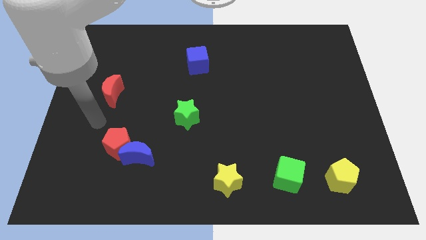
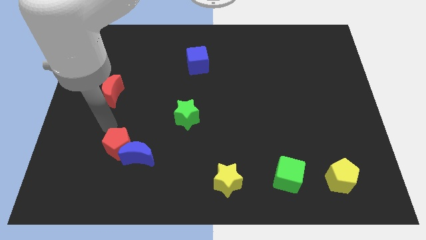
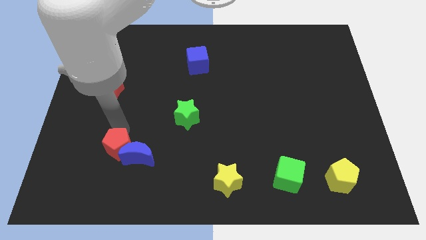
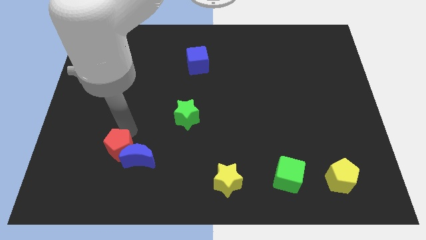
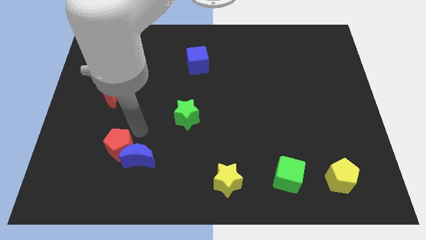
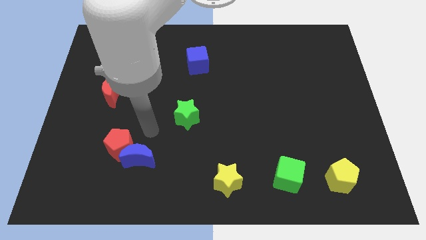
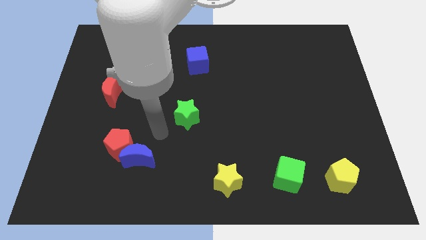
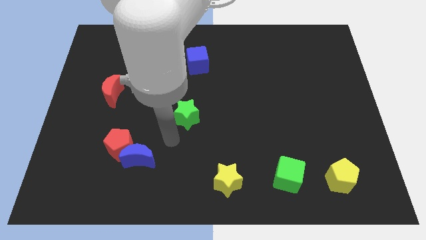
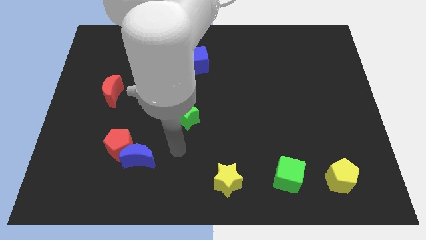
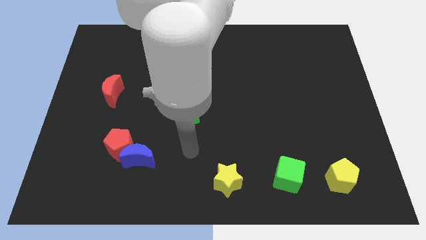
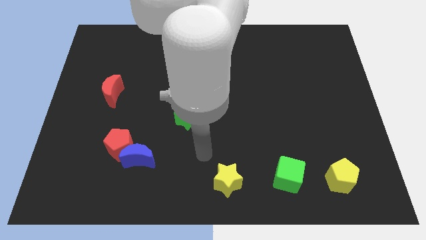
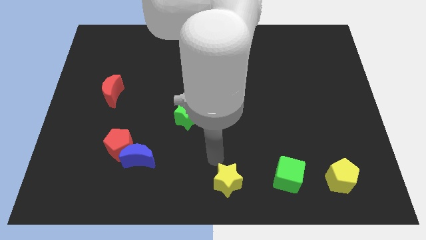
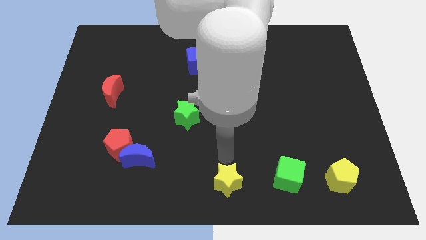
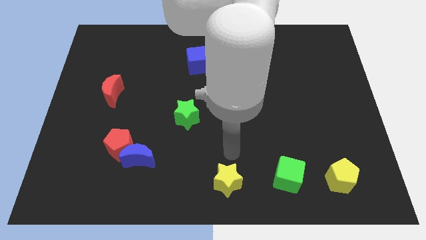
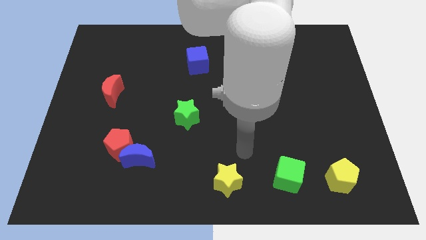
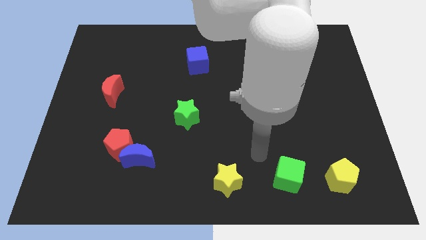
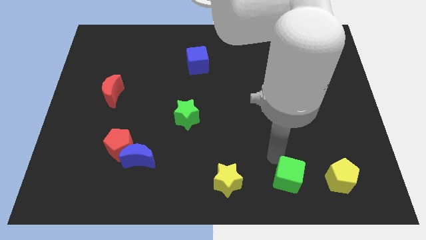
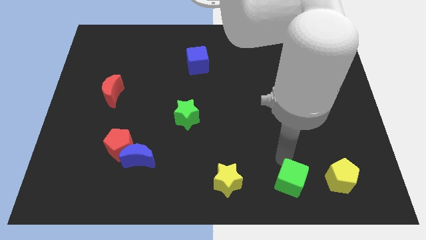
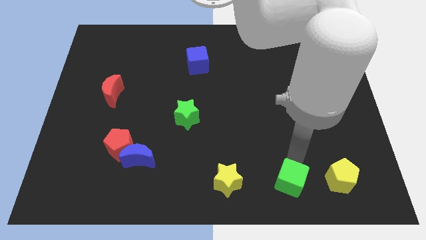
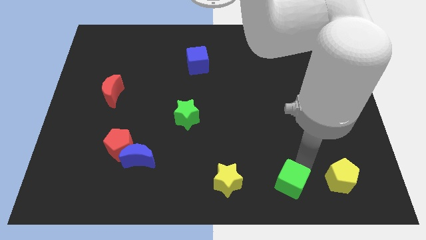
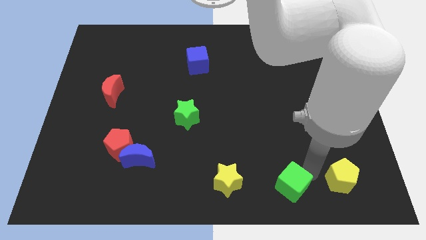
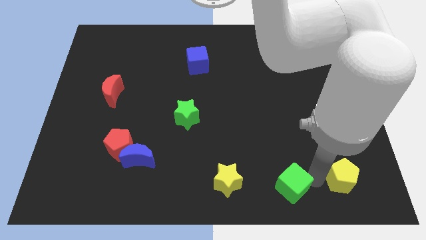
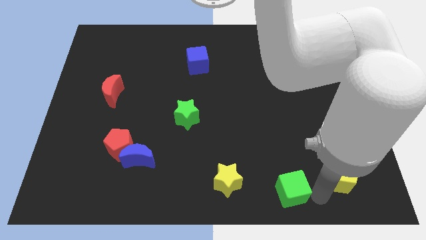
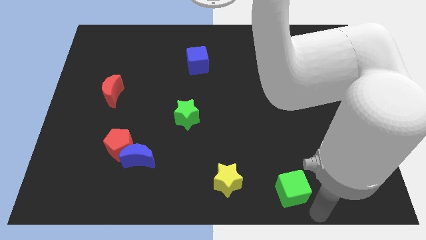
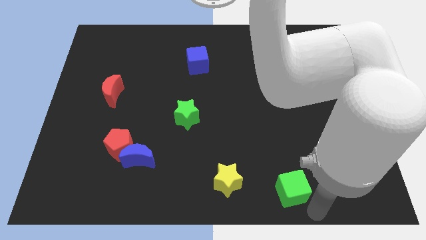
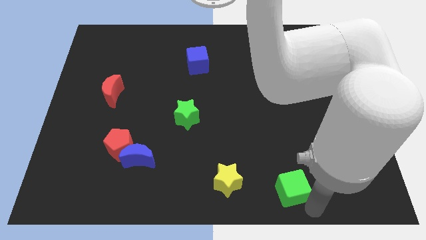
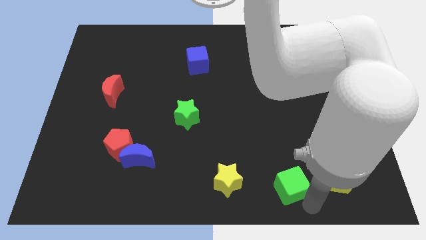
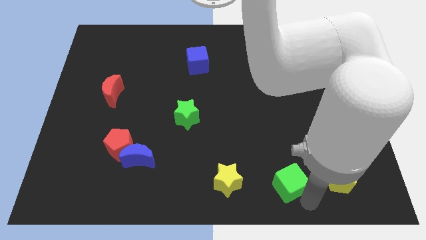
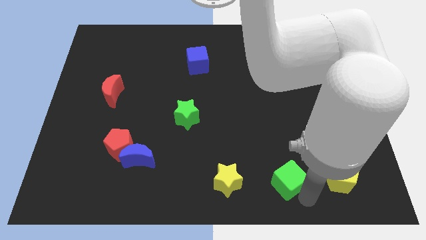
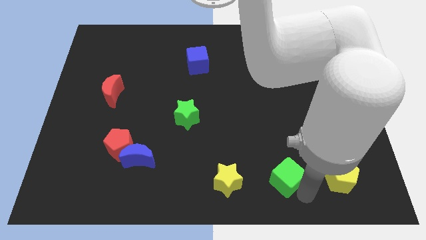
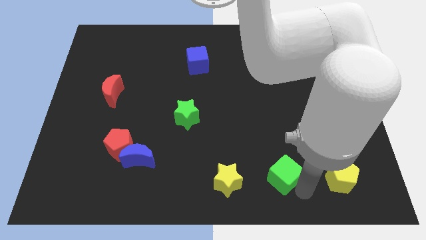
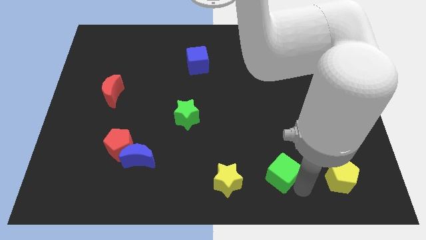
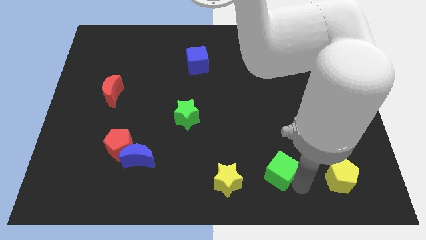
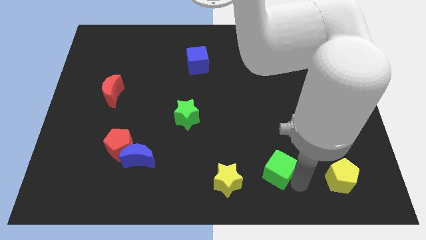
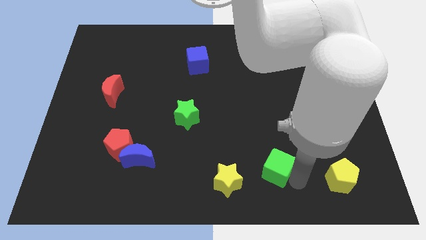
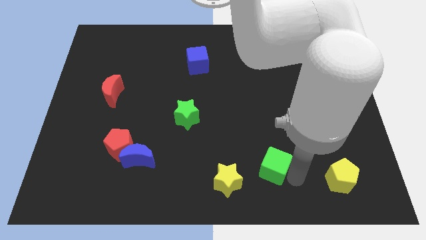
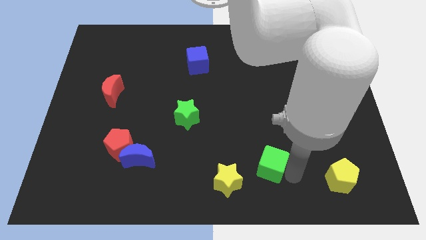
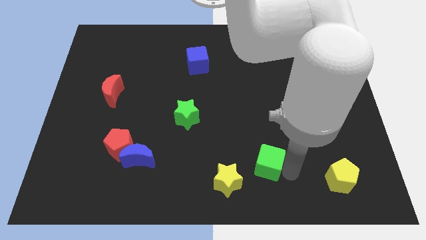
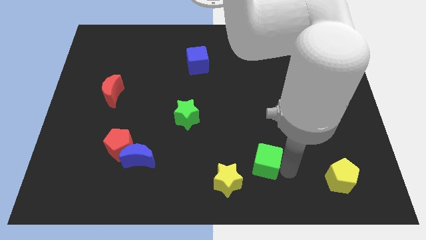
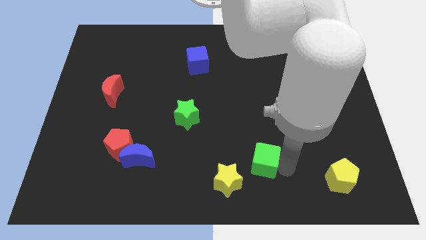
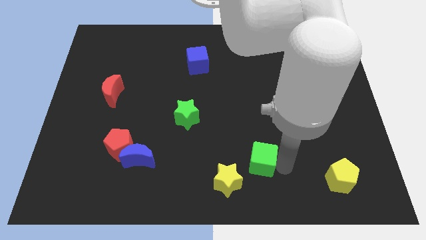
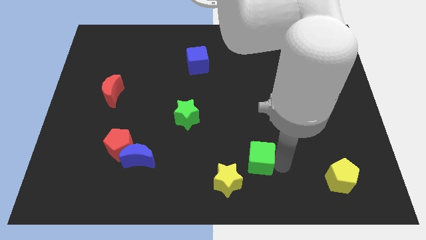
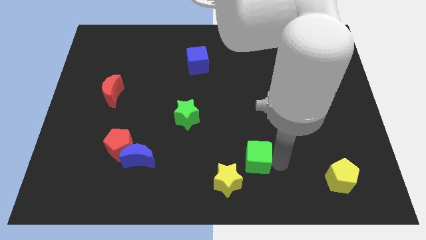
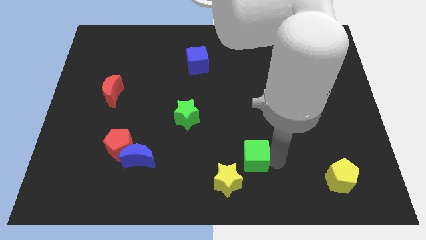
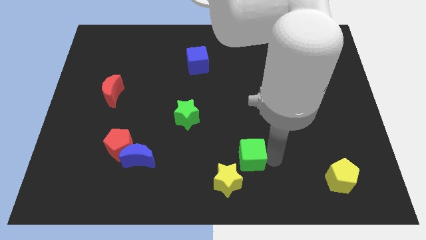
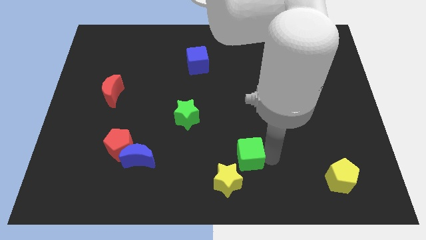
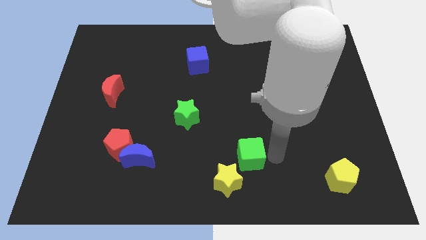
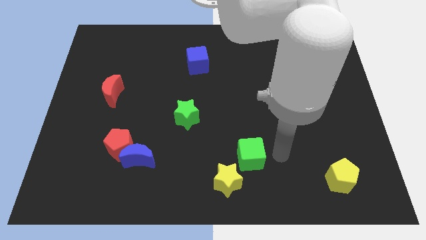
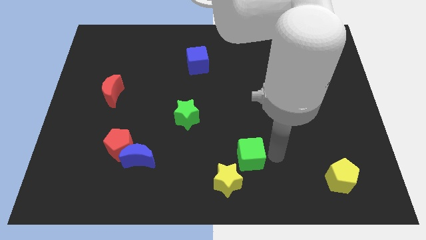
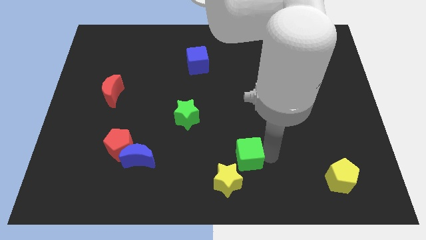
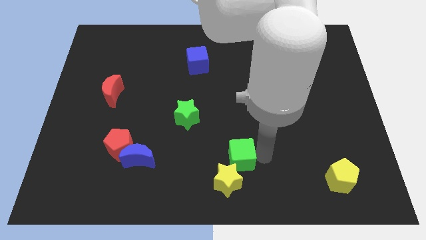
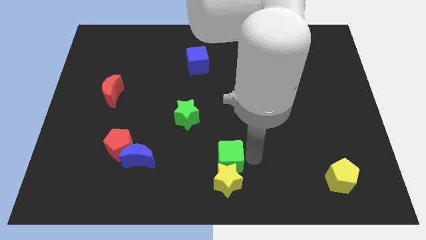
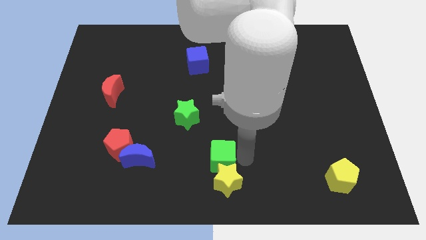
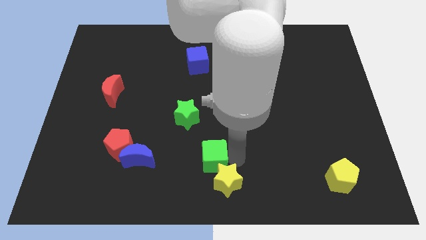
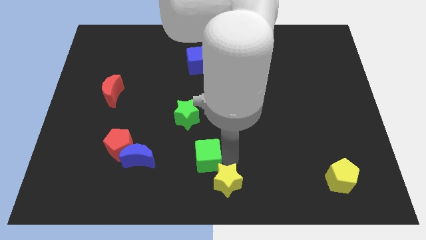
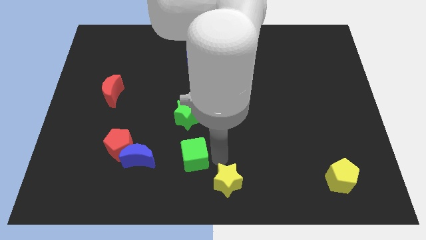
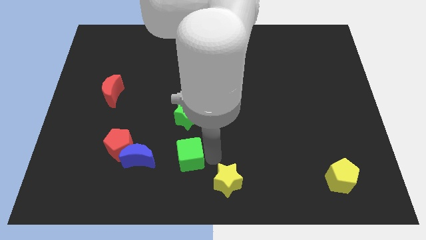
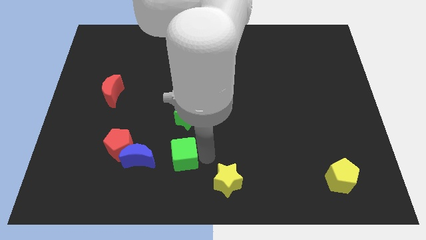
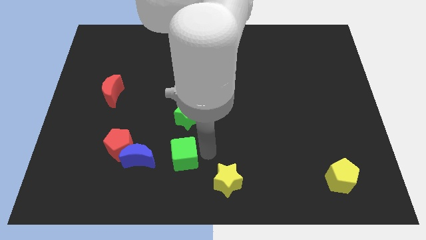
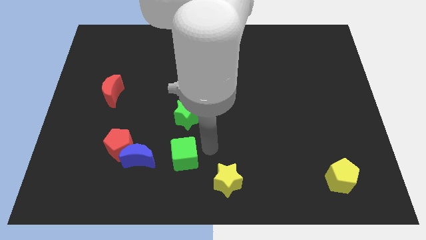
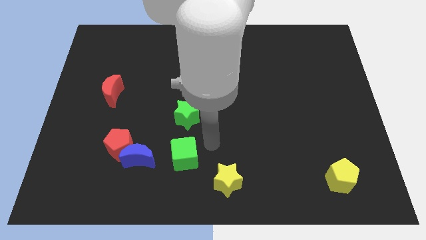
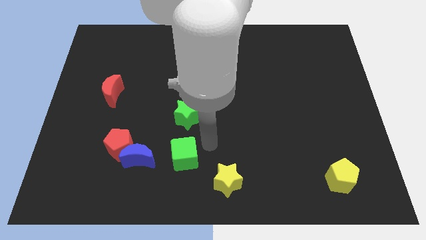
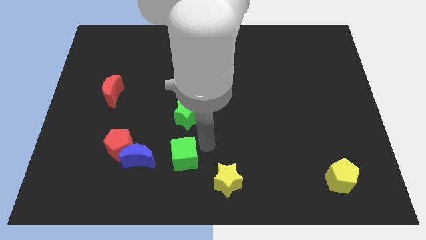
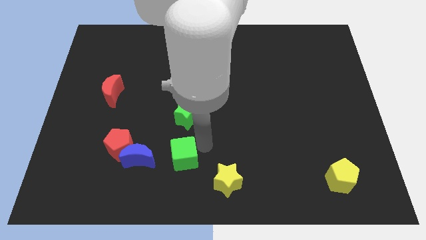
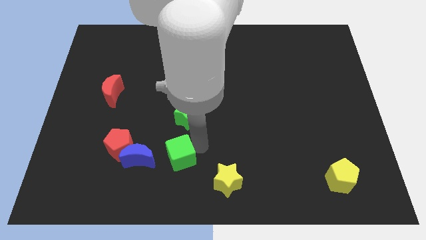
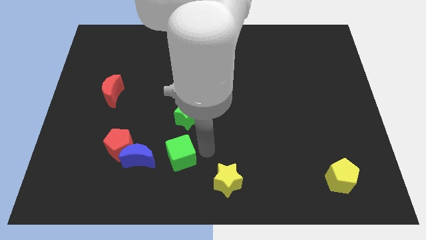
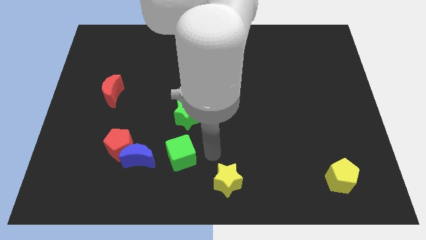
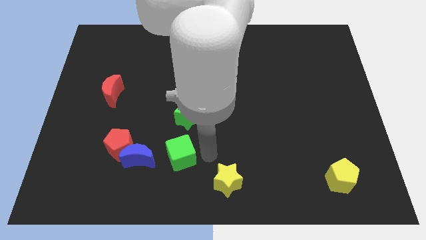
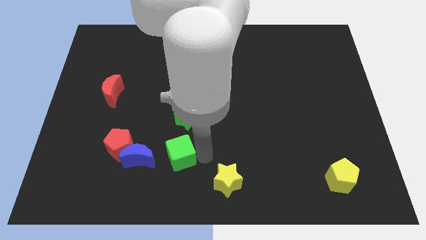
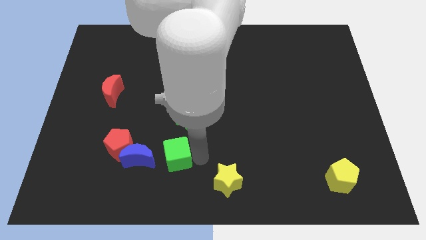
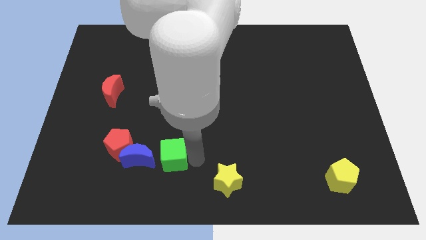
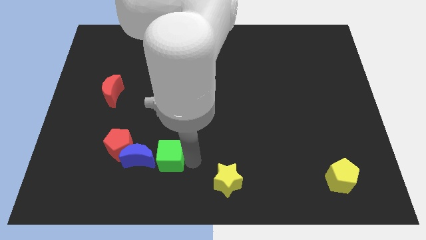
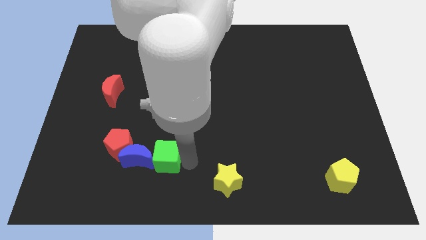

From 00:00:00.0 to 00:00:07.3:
move the green cube towards the blue moon
